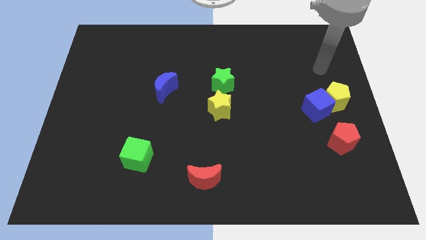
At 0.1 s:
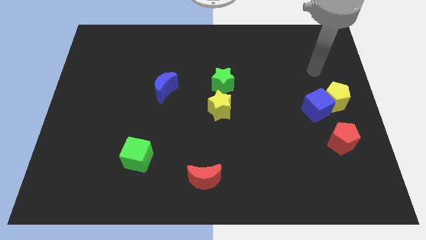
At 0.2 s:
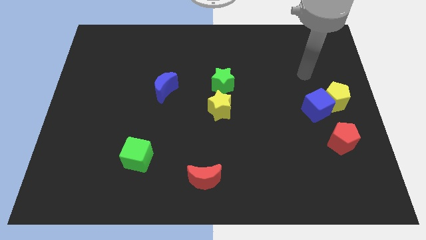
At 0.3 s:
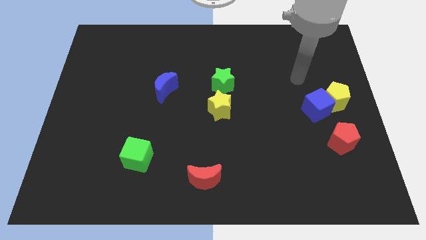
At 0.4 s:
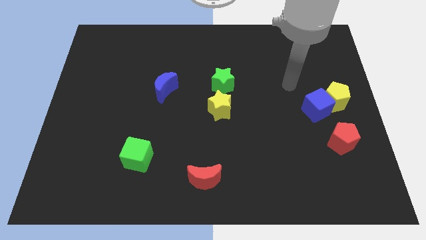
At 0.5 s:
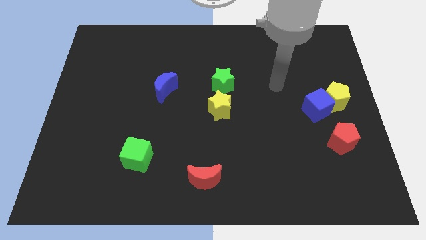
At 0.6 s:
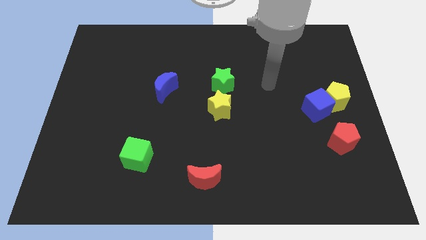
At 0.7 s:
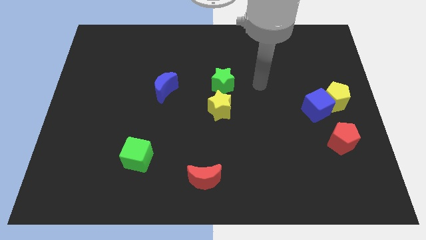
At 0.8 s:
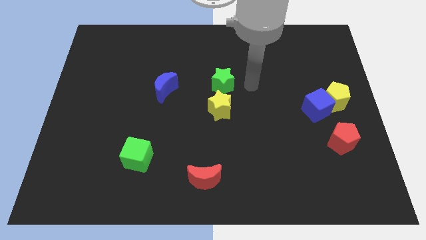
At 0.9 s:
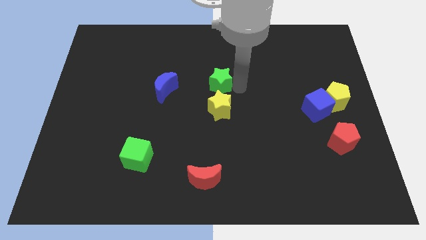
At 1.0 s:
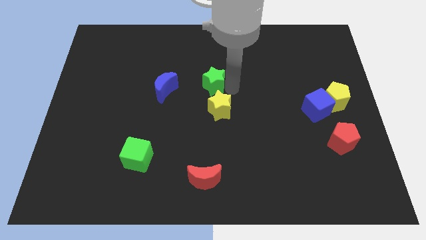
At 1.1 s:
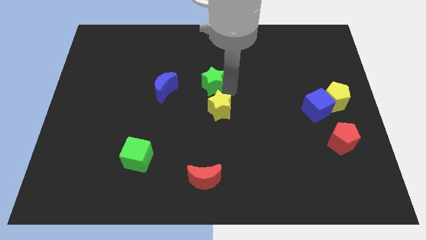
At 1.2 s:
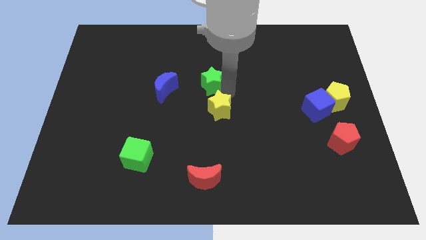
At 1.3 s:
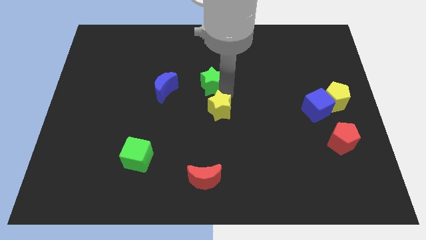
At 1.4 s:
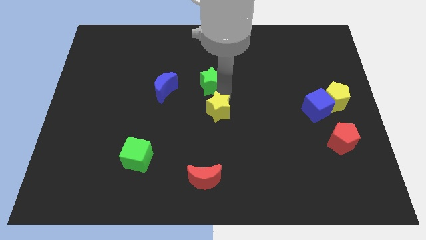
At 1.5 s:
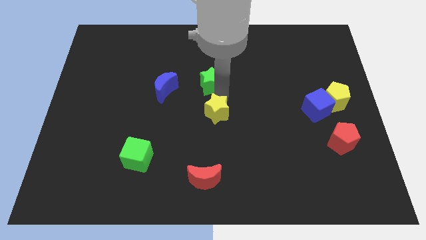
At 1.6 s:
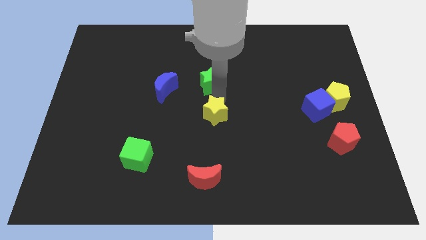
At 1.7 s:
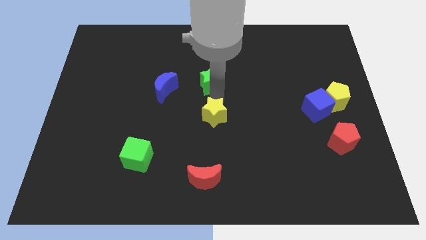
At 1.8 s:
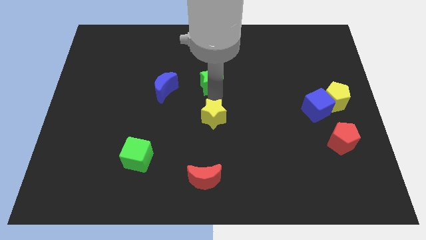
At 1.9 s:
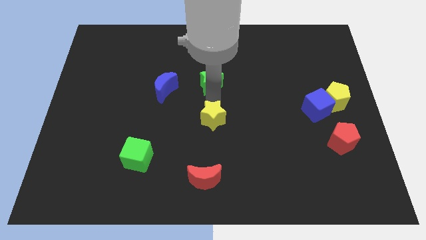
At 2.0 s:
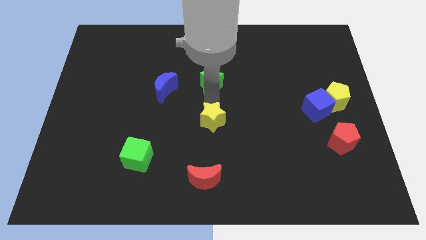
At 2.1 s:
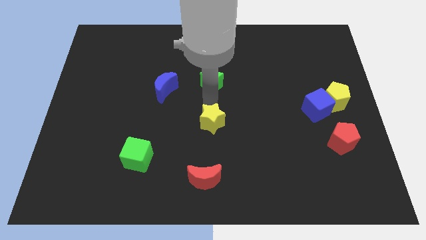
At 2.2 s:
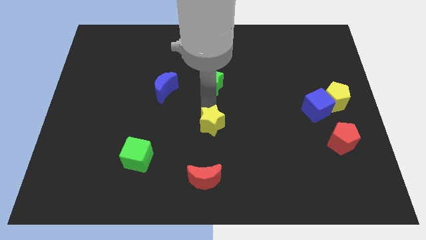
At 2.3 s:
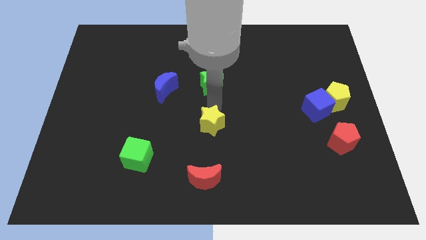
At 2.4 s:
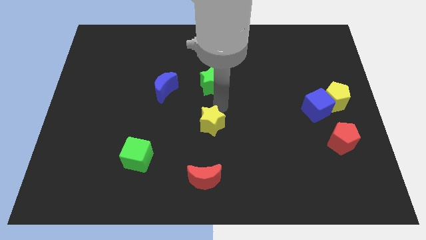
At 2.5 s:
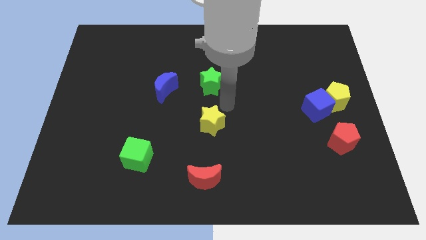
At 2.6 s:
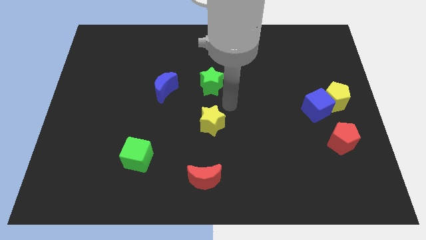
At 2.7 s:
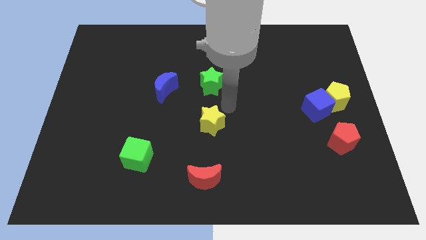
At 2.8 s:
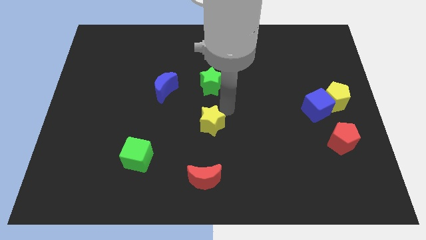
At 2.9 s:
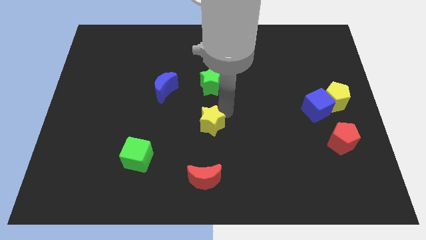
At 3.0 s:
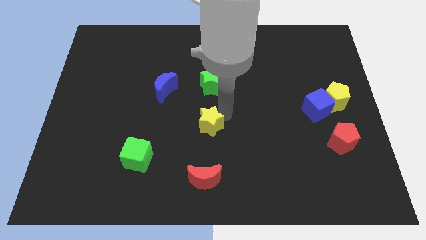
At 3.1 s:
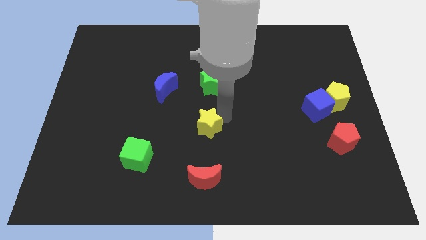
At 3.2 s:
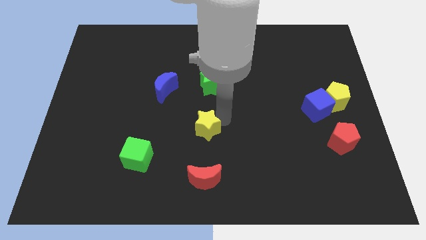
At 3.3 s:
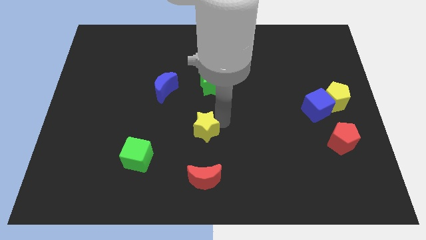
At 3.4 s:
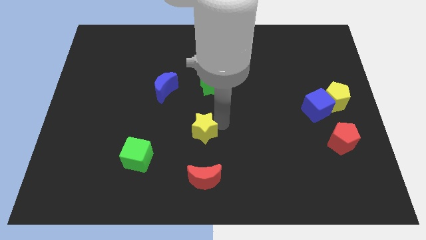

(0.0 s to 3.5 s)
slide the yellow star slightly downwards and to the left diagonally

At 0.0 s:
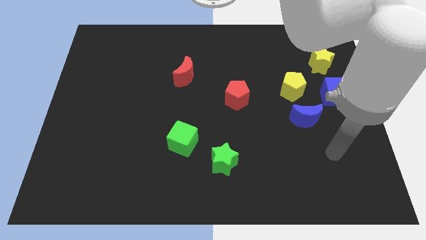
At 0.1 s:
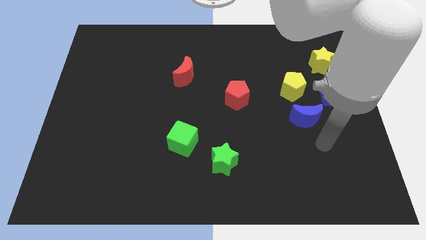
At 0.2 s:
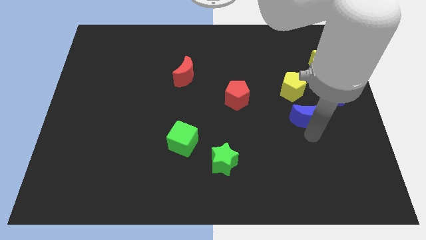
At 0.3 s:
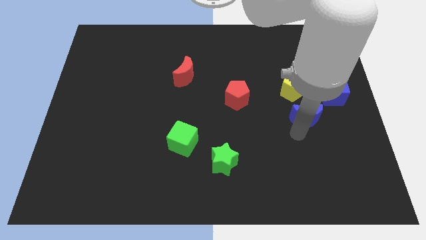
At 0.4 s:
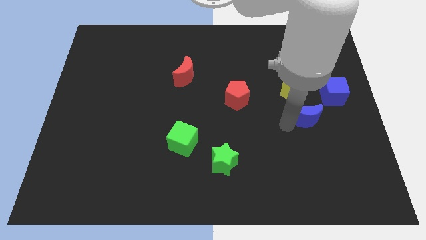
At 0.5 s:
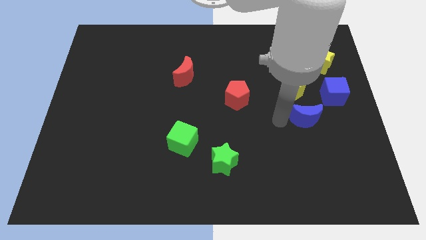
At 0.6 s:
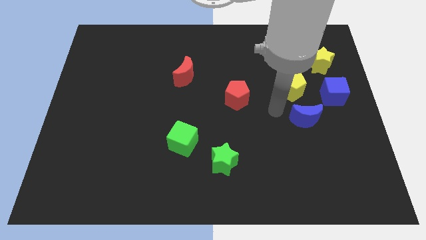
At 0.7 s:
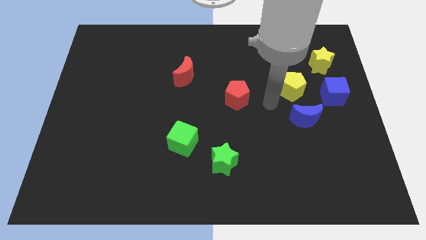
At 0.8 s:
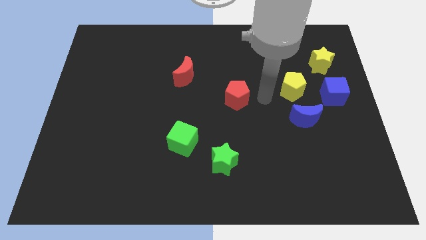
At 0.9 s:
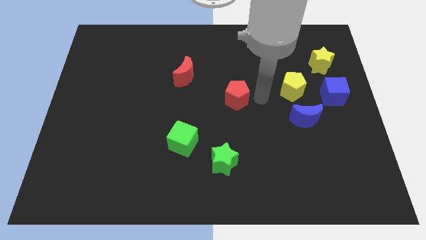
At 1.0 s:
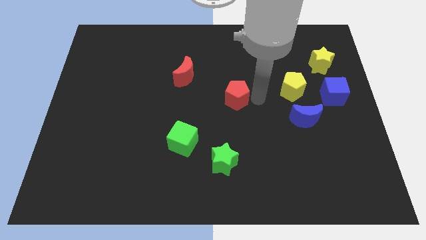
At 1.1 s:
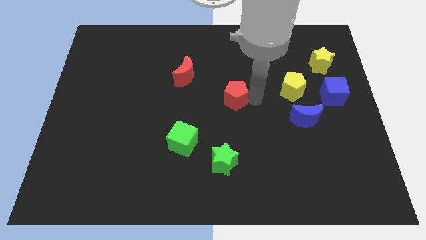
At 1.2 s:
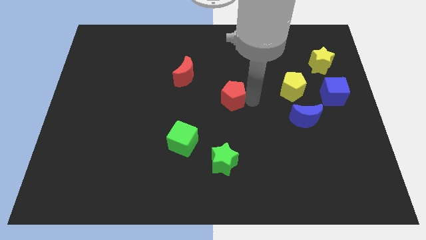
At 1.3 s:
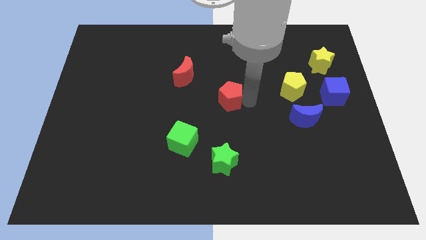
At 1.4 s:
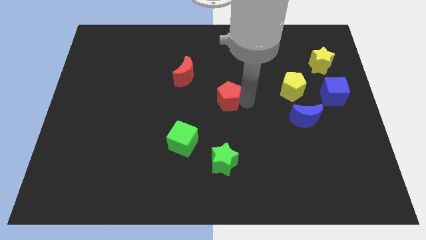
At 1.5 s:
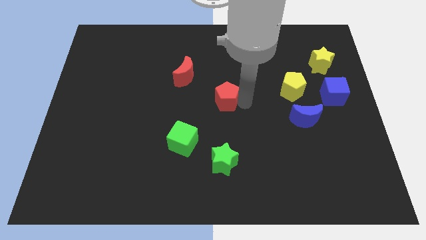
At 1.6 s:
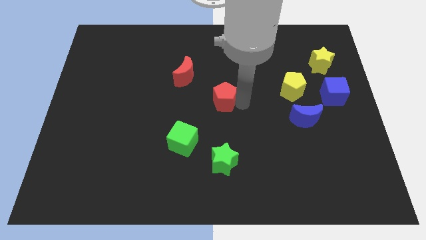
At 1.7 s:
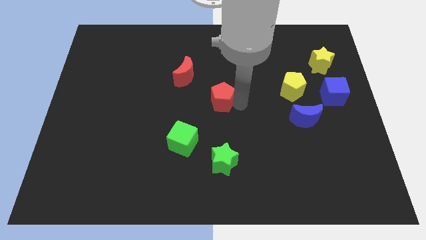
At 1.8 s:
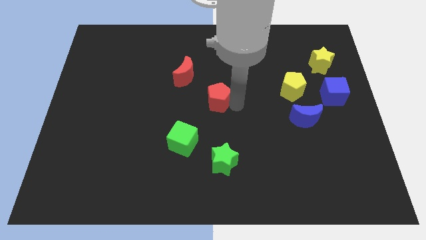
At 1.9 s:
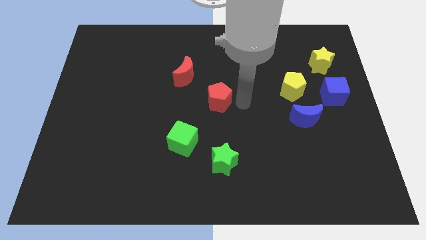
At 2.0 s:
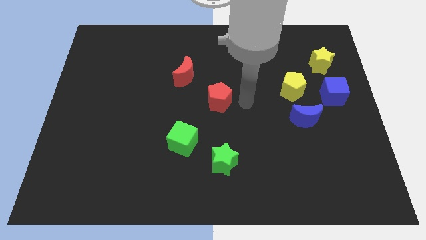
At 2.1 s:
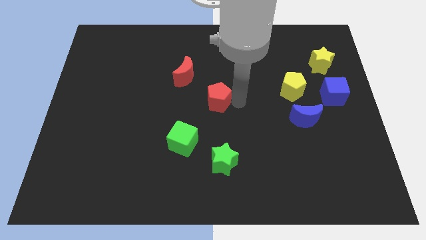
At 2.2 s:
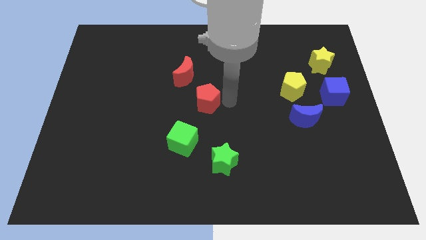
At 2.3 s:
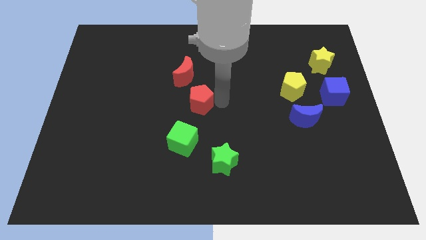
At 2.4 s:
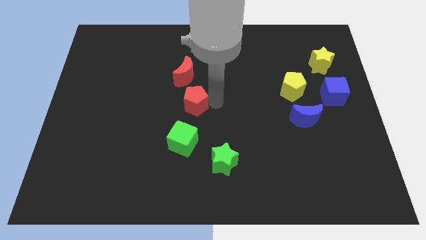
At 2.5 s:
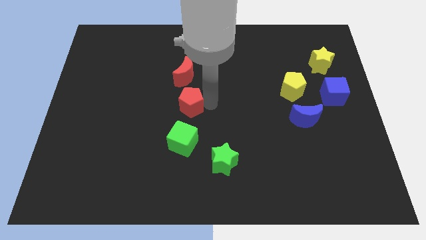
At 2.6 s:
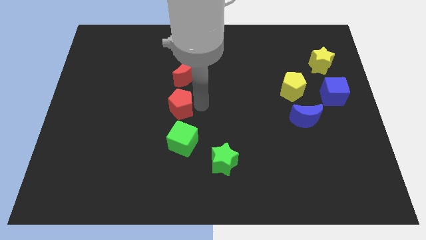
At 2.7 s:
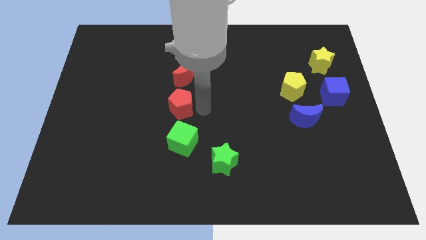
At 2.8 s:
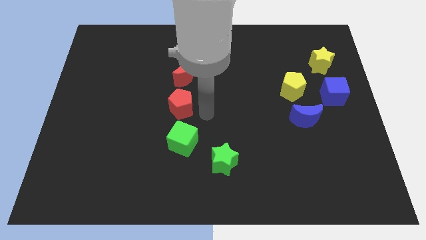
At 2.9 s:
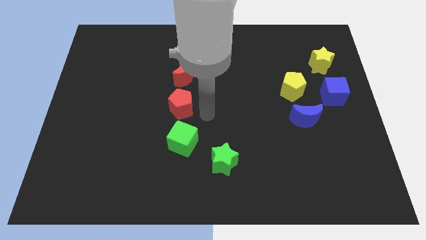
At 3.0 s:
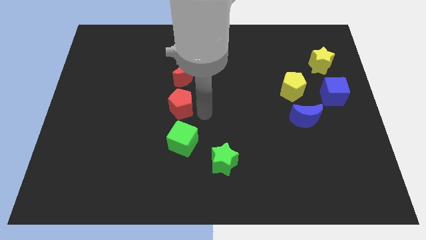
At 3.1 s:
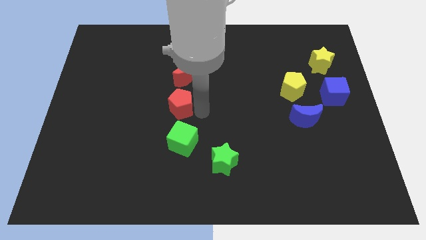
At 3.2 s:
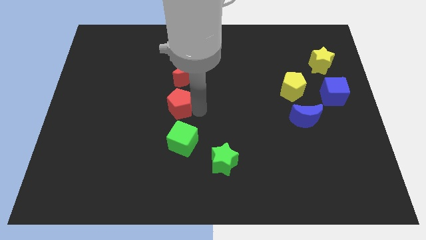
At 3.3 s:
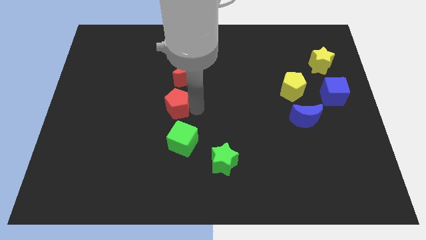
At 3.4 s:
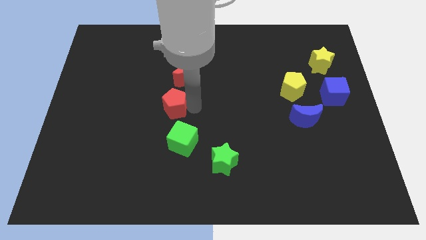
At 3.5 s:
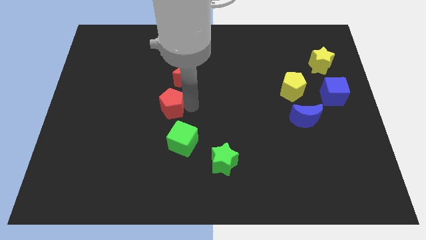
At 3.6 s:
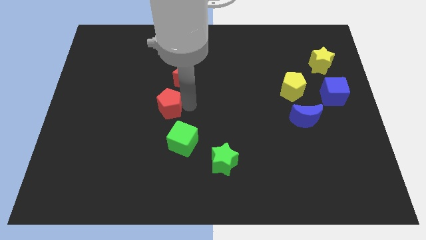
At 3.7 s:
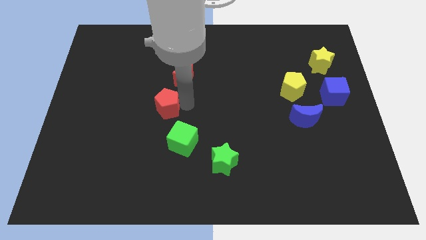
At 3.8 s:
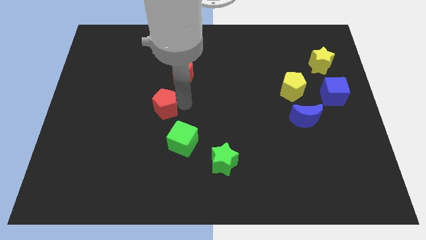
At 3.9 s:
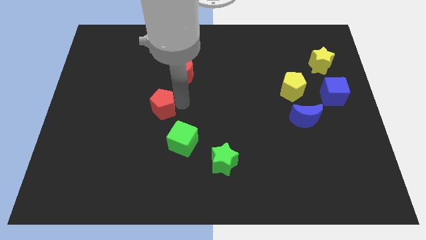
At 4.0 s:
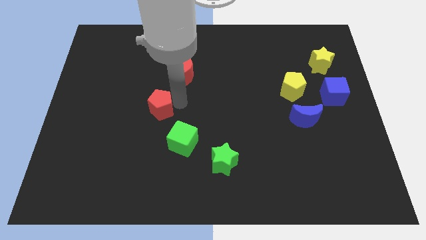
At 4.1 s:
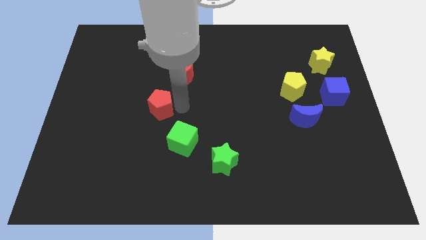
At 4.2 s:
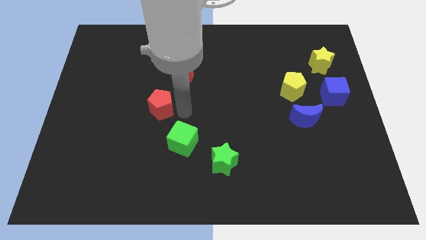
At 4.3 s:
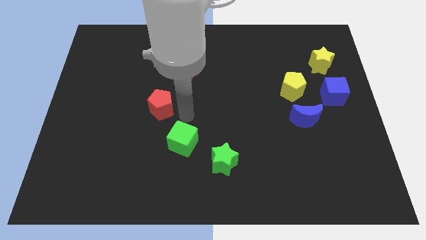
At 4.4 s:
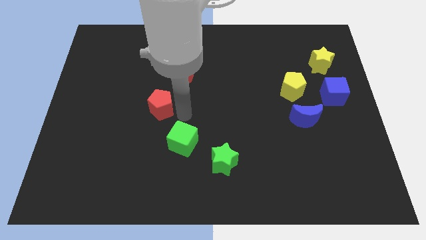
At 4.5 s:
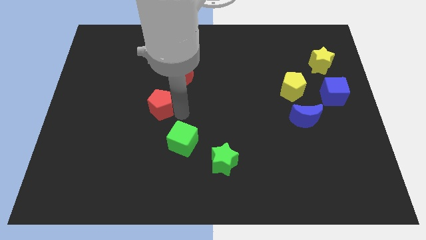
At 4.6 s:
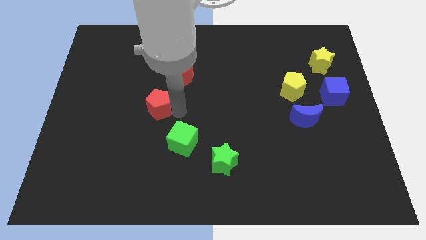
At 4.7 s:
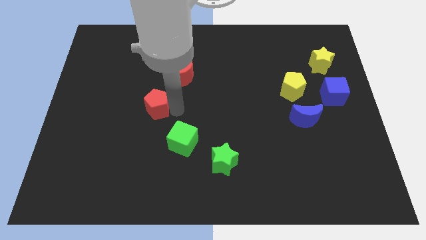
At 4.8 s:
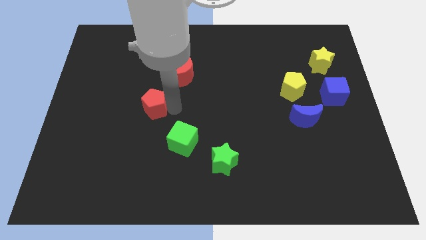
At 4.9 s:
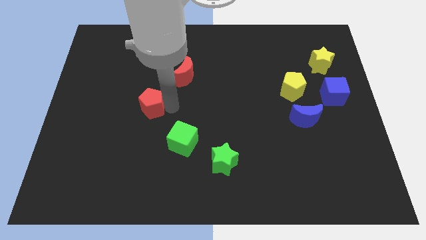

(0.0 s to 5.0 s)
move the red pentagon to the left
